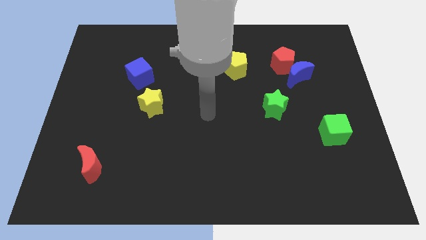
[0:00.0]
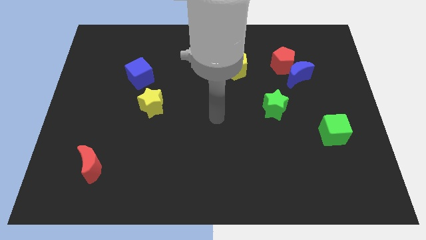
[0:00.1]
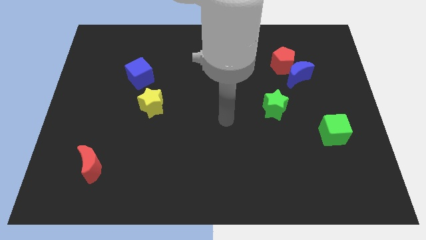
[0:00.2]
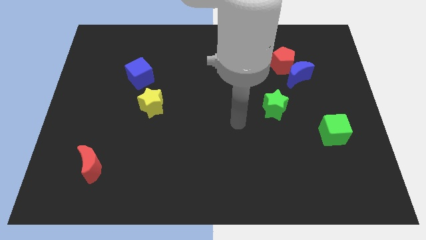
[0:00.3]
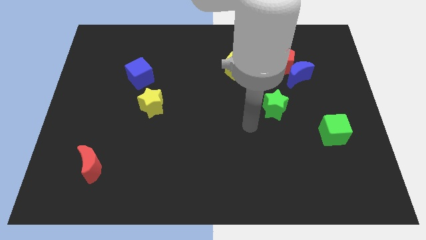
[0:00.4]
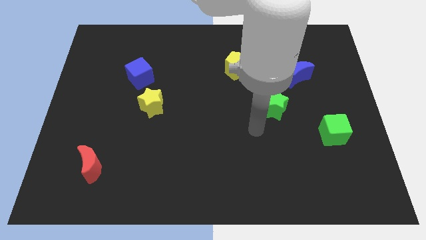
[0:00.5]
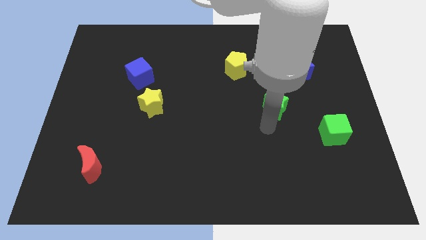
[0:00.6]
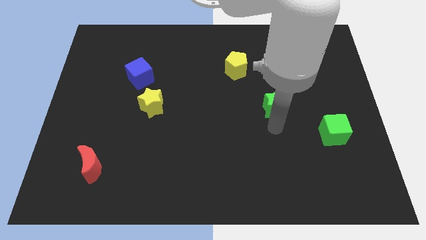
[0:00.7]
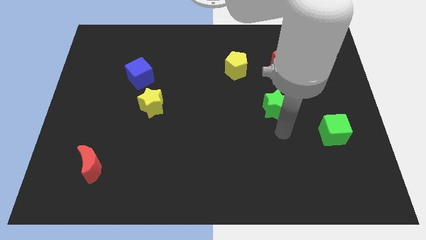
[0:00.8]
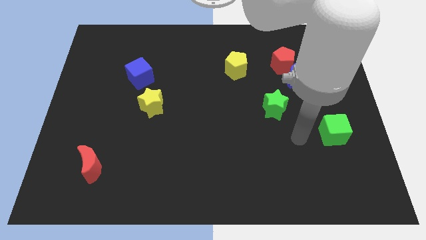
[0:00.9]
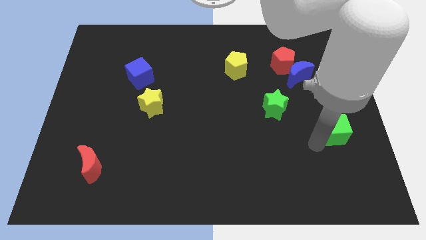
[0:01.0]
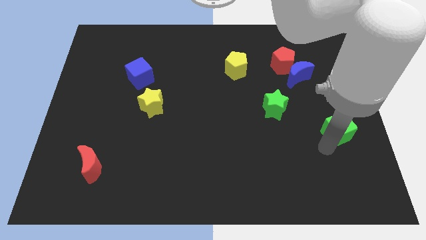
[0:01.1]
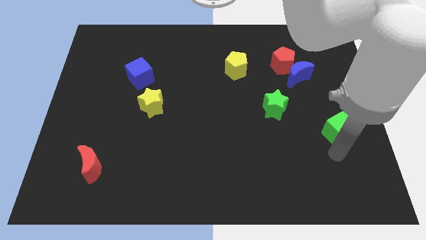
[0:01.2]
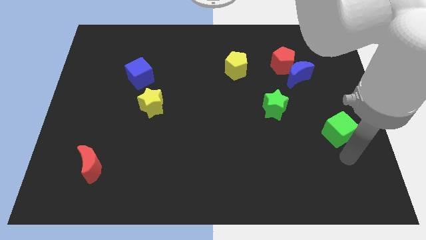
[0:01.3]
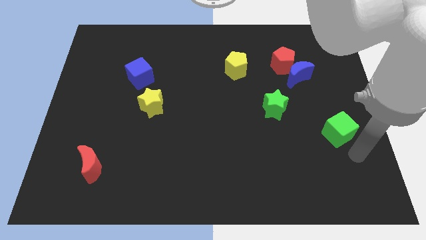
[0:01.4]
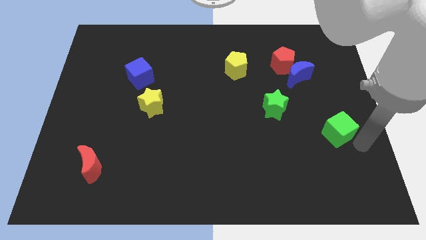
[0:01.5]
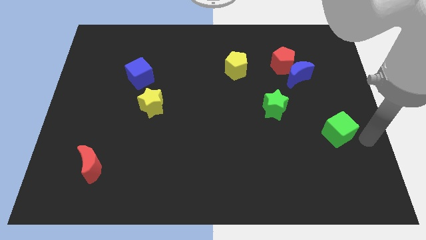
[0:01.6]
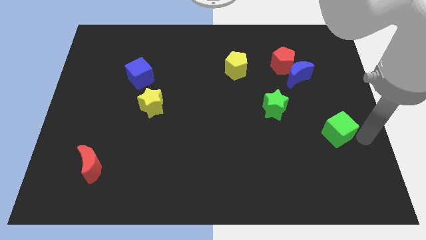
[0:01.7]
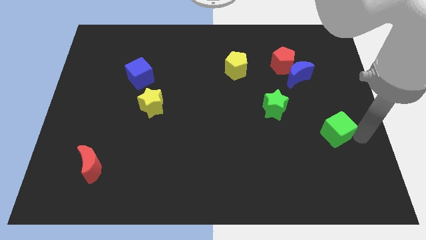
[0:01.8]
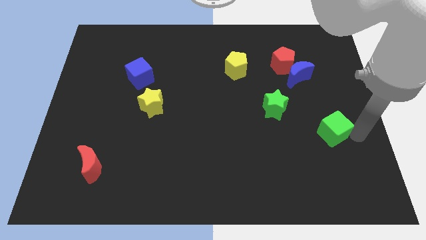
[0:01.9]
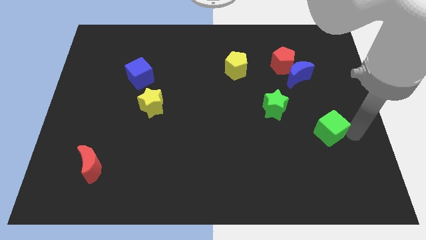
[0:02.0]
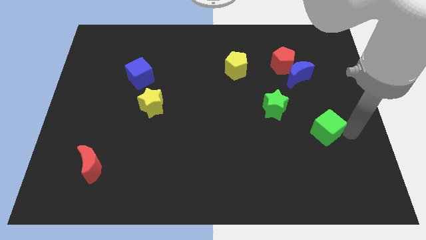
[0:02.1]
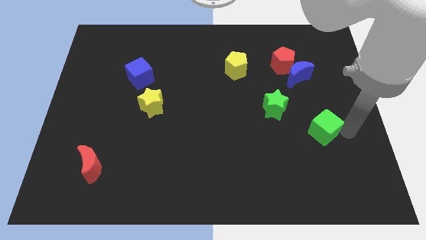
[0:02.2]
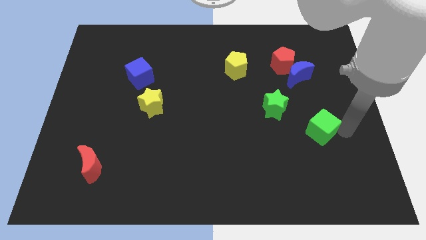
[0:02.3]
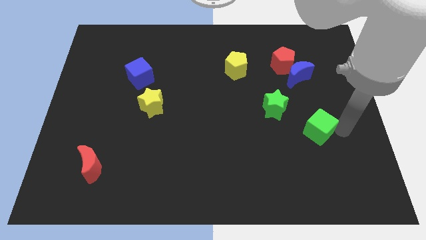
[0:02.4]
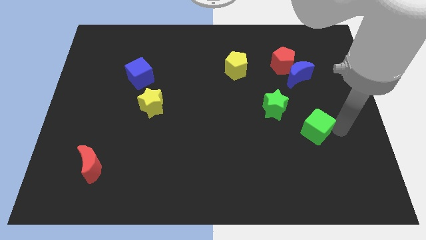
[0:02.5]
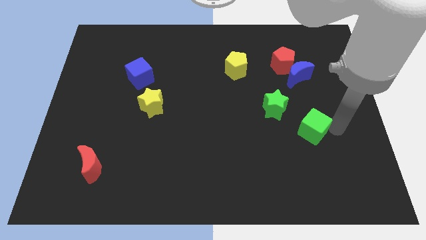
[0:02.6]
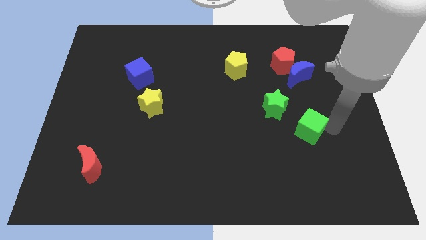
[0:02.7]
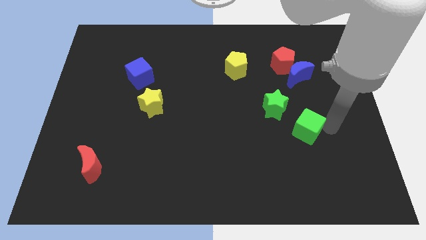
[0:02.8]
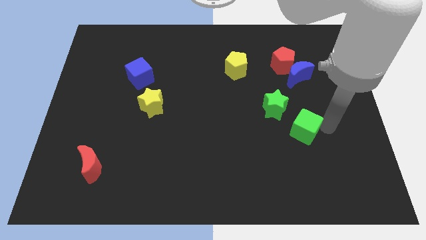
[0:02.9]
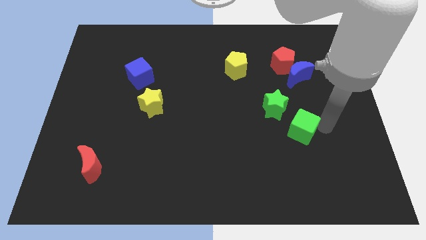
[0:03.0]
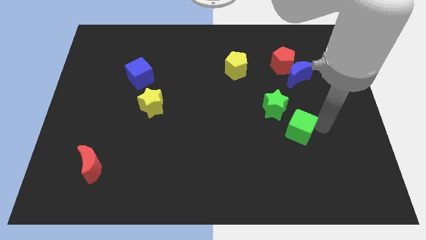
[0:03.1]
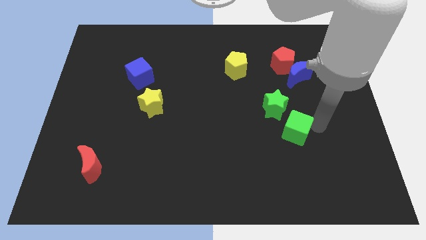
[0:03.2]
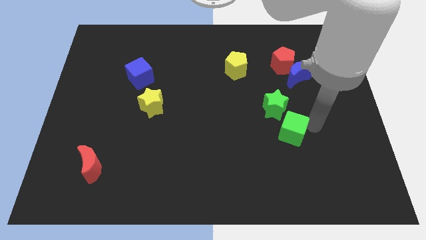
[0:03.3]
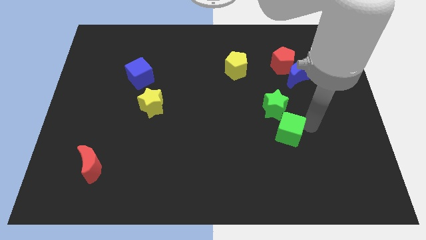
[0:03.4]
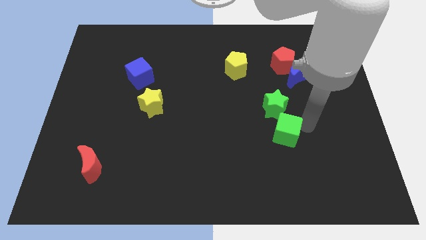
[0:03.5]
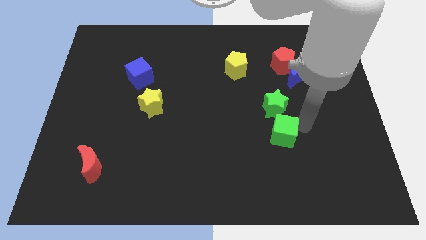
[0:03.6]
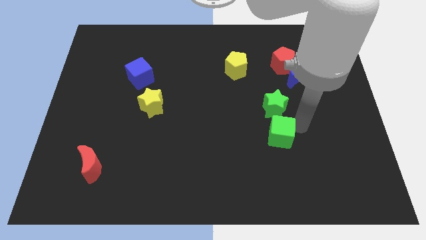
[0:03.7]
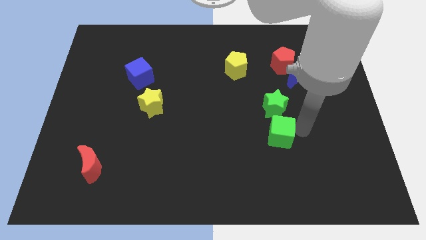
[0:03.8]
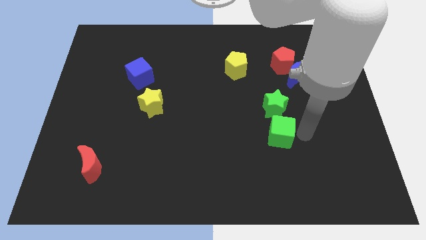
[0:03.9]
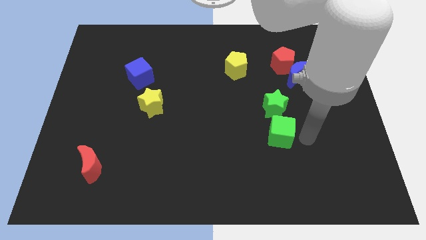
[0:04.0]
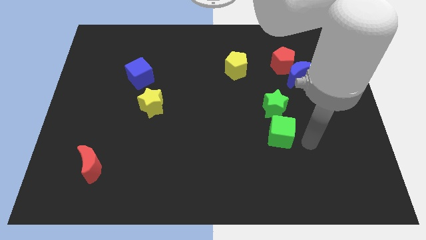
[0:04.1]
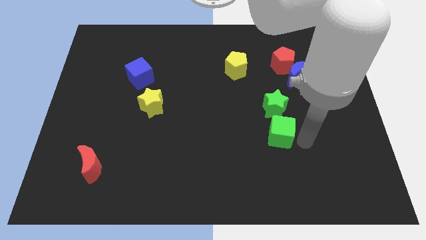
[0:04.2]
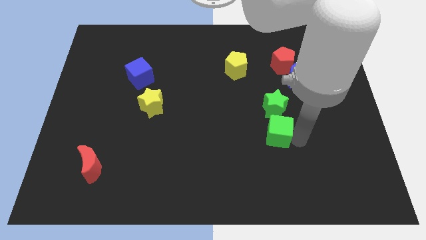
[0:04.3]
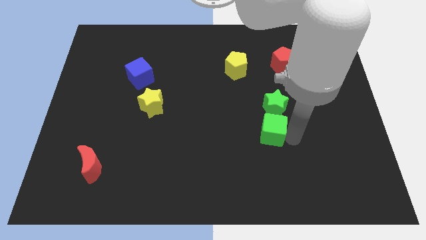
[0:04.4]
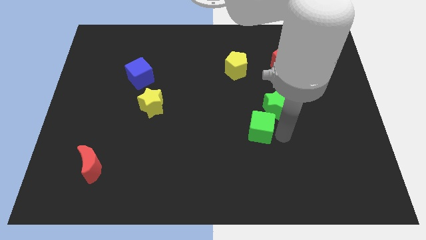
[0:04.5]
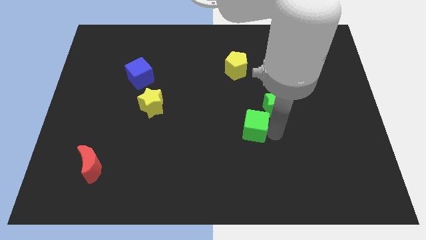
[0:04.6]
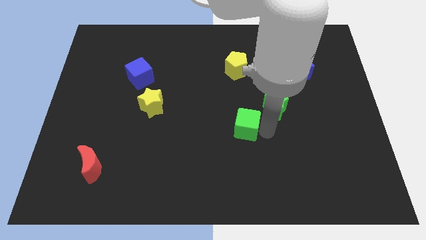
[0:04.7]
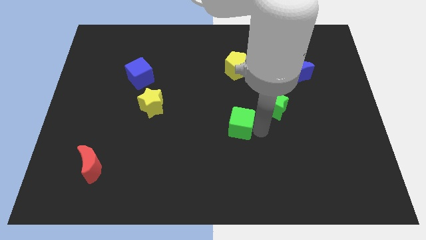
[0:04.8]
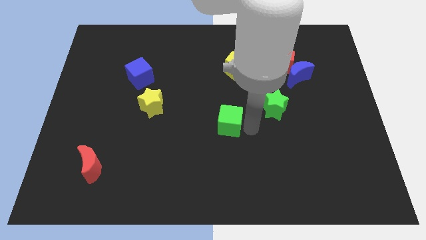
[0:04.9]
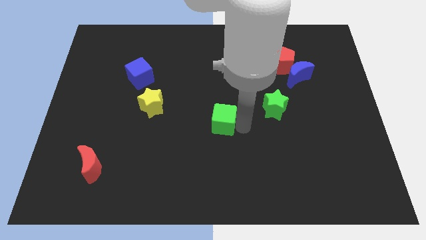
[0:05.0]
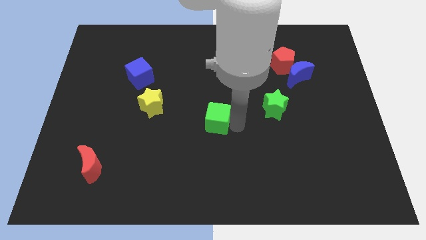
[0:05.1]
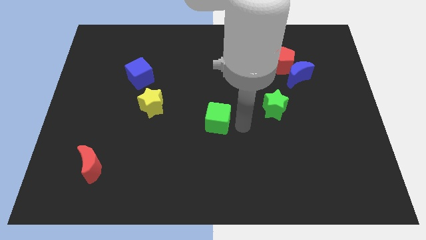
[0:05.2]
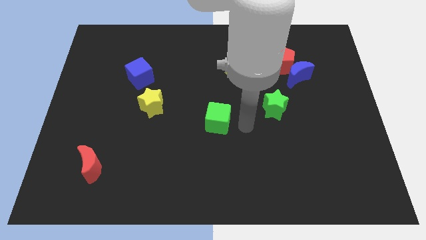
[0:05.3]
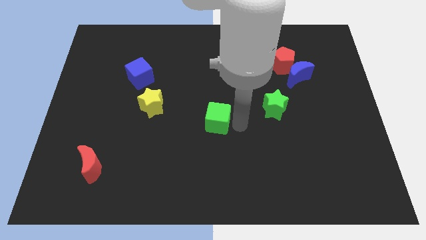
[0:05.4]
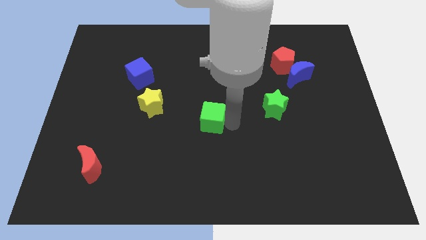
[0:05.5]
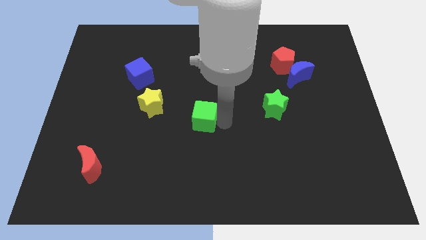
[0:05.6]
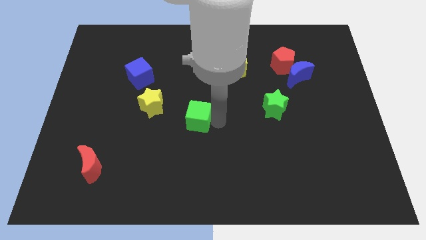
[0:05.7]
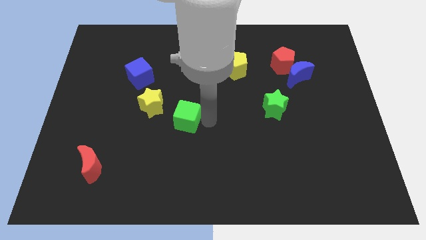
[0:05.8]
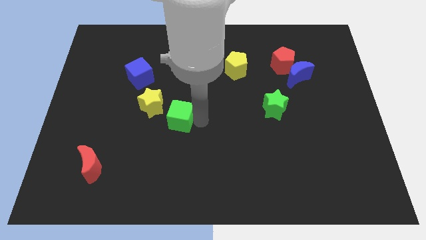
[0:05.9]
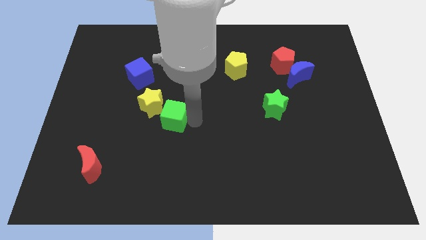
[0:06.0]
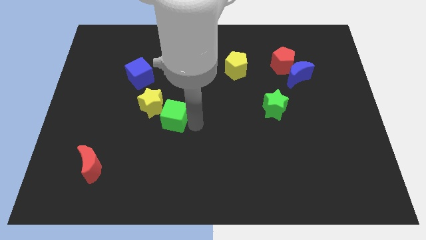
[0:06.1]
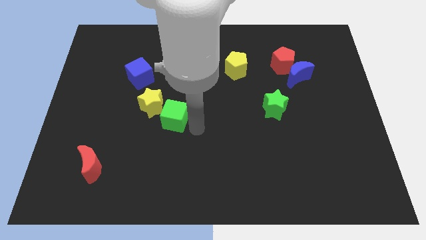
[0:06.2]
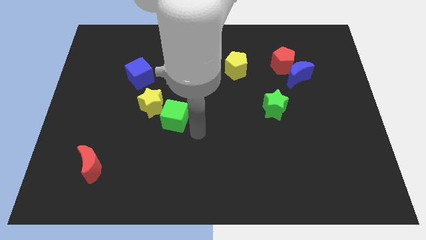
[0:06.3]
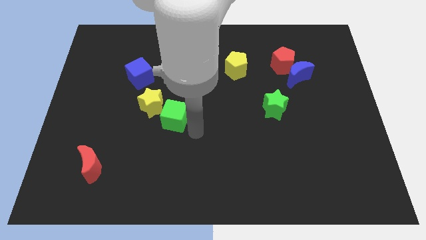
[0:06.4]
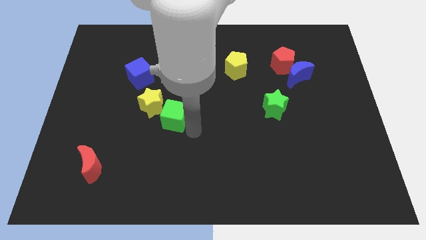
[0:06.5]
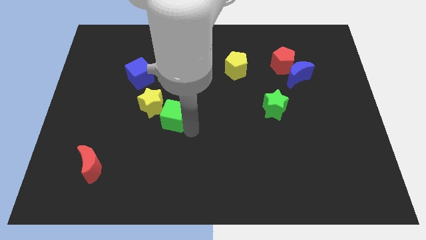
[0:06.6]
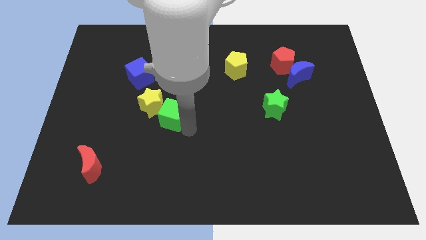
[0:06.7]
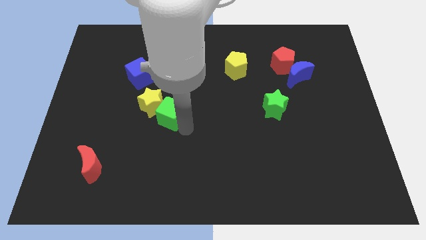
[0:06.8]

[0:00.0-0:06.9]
push the green cube to the yellow star
